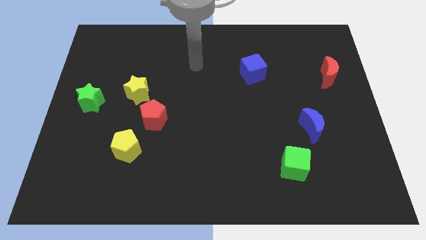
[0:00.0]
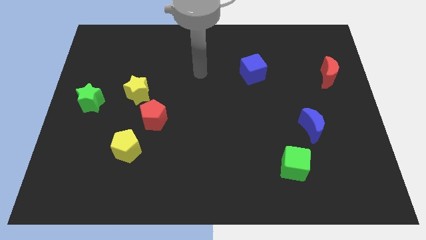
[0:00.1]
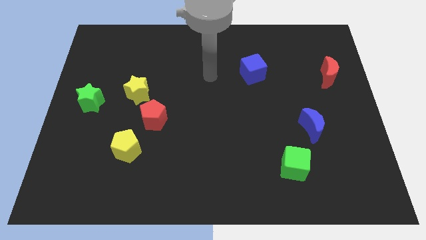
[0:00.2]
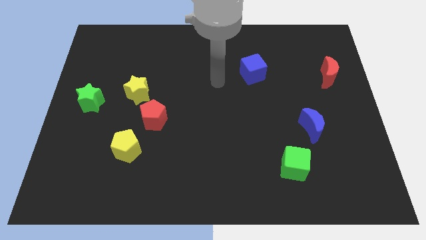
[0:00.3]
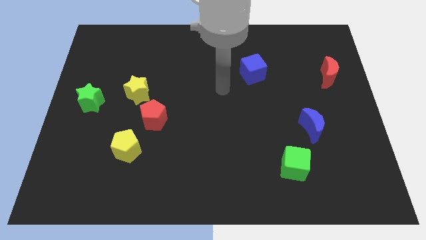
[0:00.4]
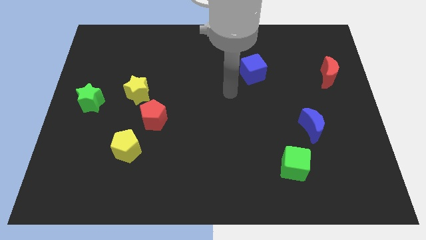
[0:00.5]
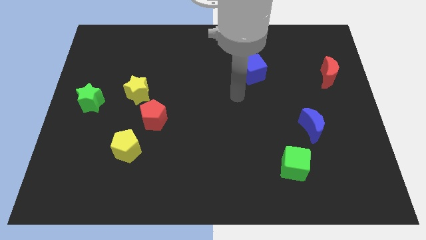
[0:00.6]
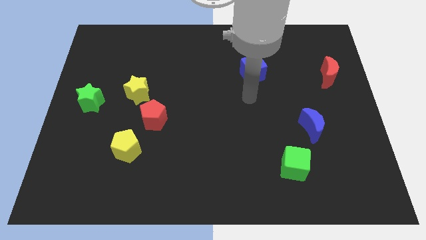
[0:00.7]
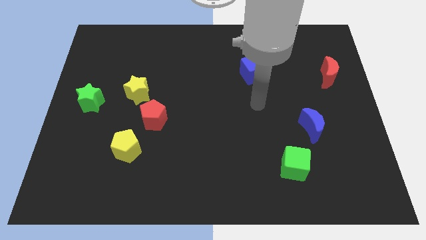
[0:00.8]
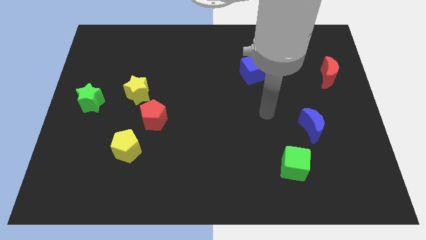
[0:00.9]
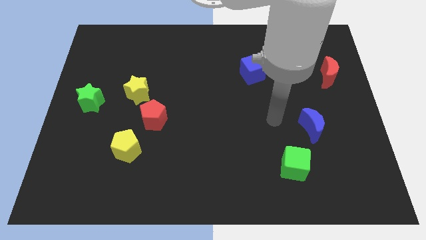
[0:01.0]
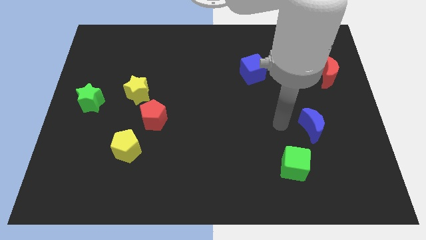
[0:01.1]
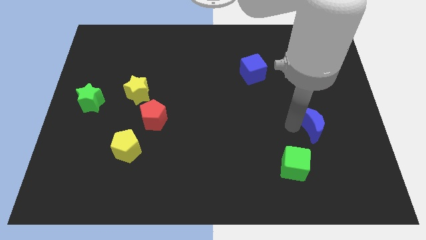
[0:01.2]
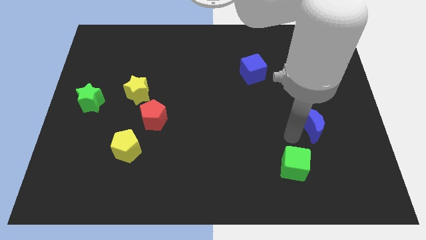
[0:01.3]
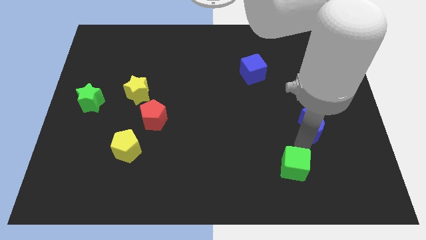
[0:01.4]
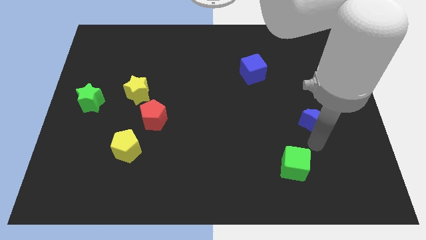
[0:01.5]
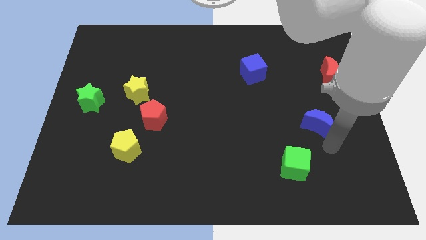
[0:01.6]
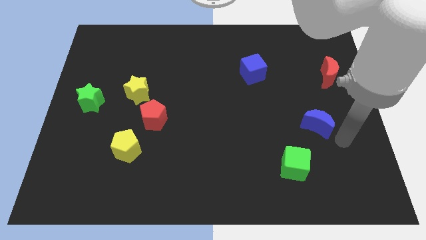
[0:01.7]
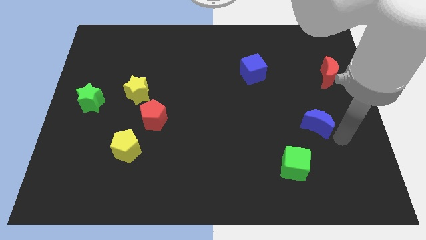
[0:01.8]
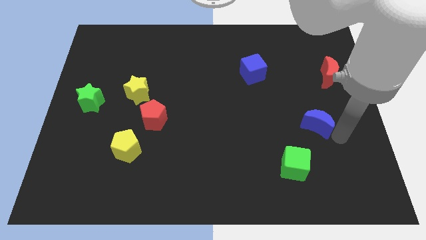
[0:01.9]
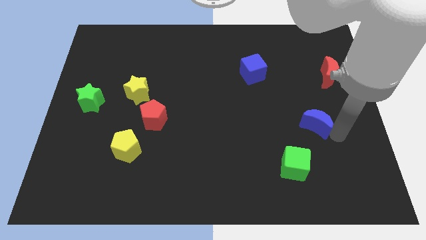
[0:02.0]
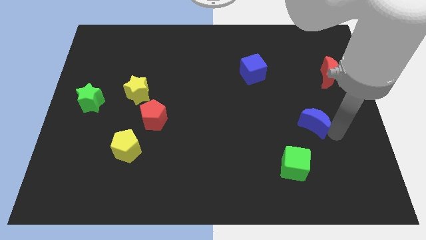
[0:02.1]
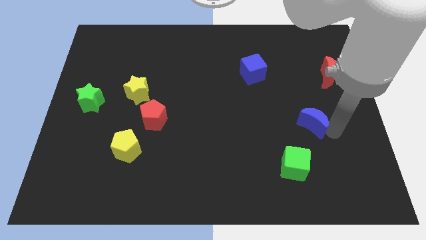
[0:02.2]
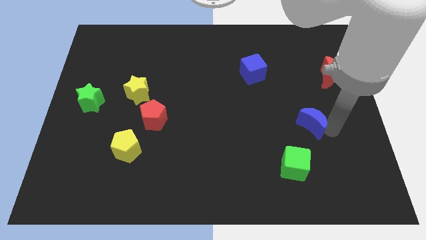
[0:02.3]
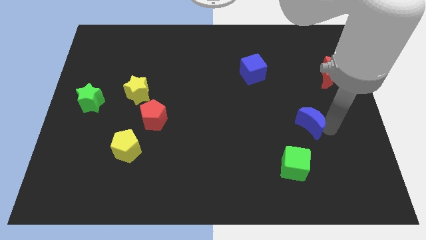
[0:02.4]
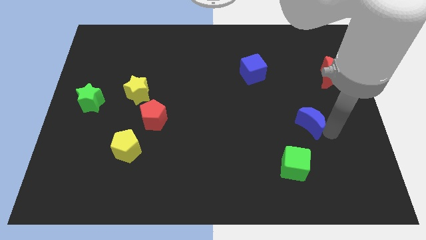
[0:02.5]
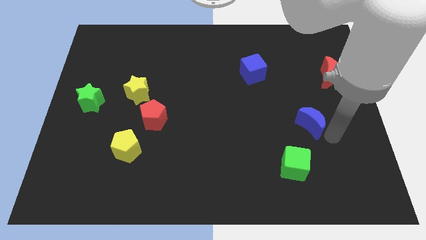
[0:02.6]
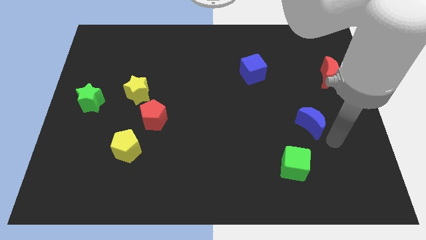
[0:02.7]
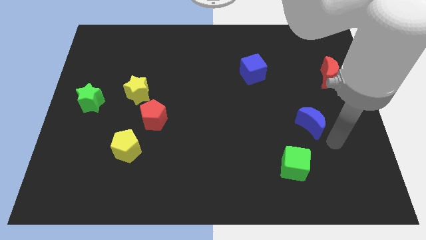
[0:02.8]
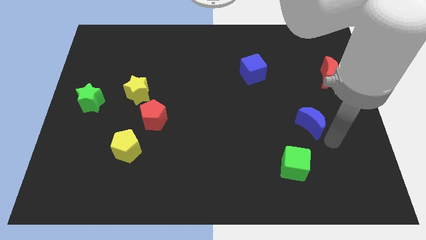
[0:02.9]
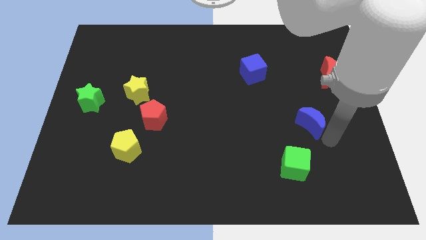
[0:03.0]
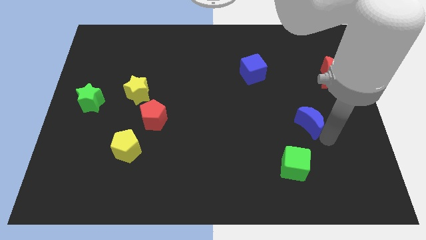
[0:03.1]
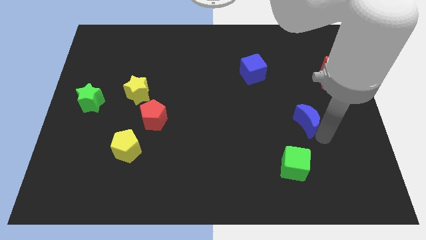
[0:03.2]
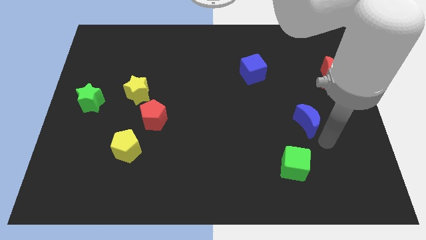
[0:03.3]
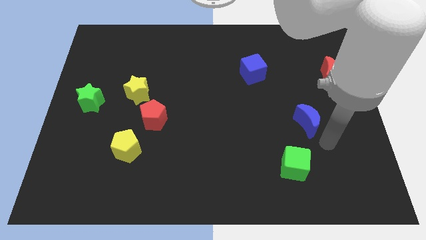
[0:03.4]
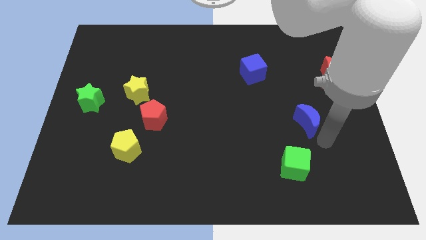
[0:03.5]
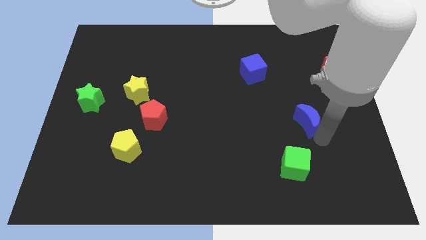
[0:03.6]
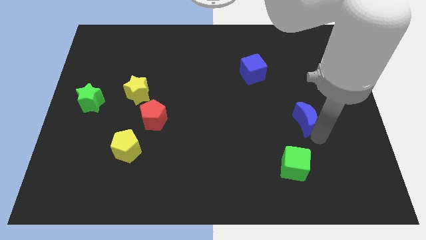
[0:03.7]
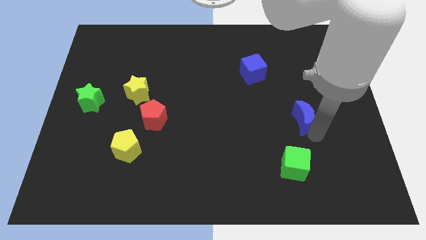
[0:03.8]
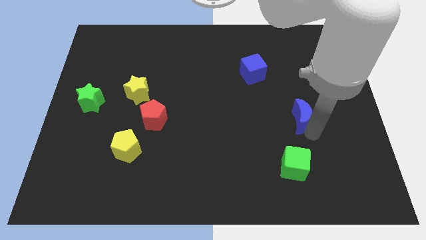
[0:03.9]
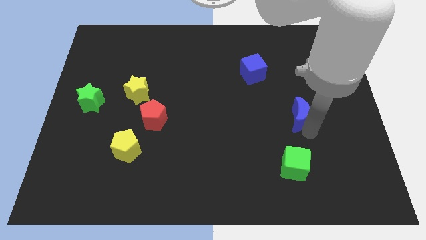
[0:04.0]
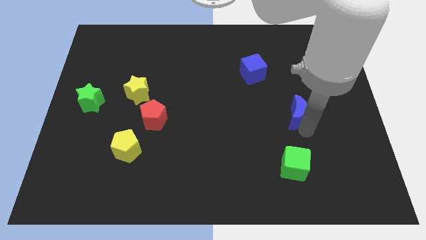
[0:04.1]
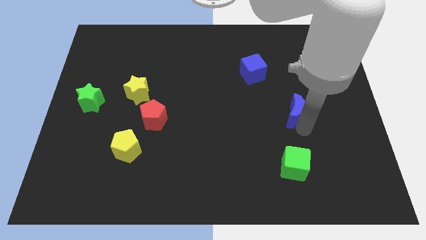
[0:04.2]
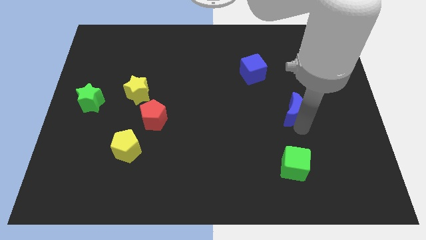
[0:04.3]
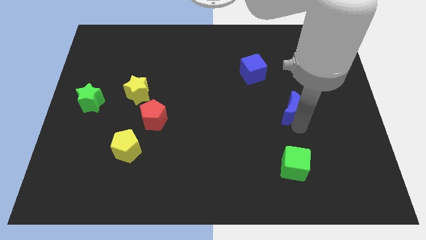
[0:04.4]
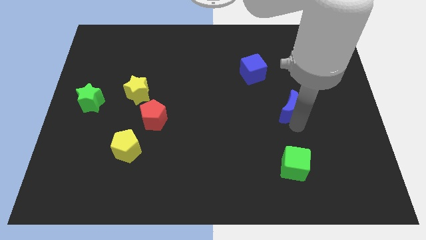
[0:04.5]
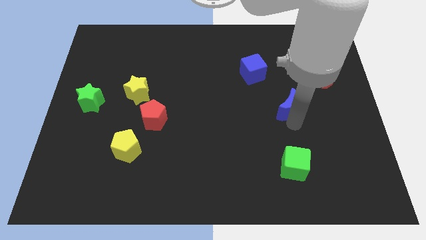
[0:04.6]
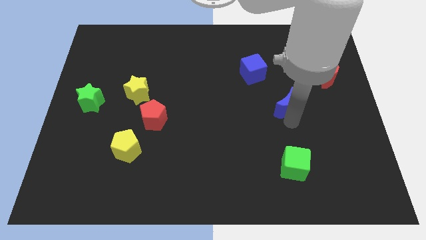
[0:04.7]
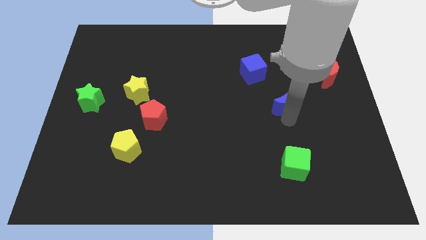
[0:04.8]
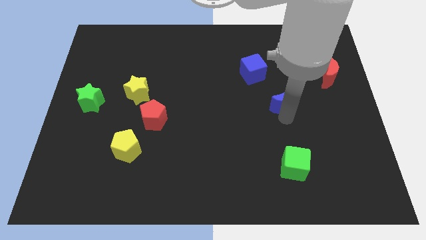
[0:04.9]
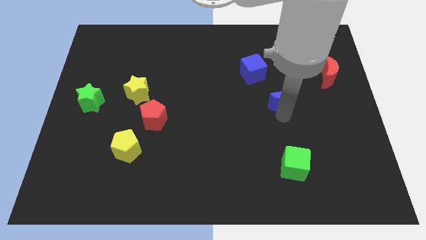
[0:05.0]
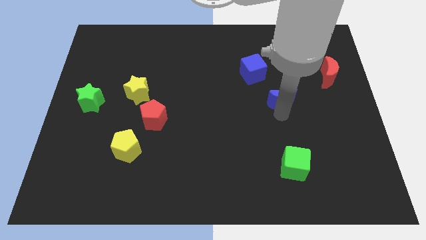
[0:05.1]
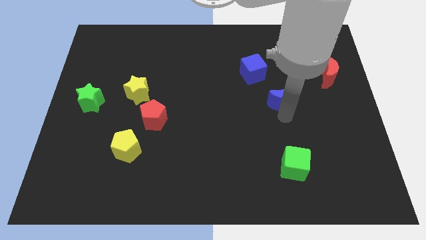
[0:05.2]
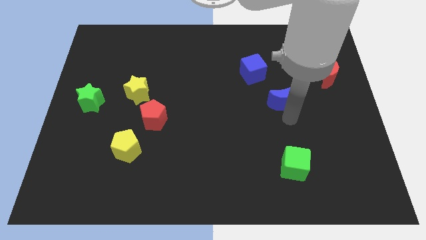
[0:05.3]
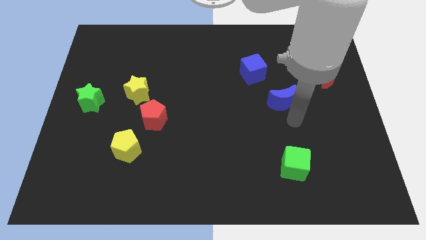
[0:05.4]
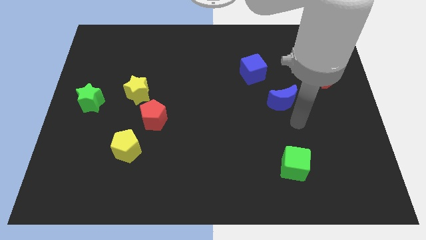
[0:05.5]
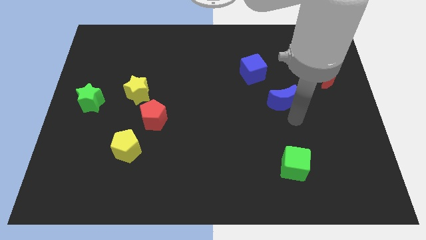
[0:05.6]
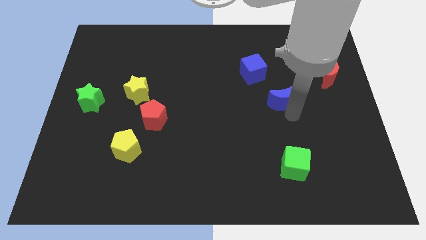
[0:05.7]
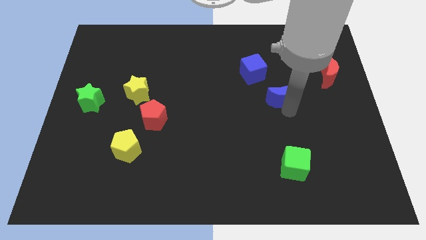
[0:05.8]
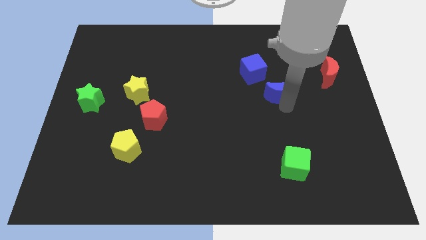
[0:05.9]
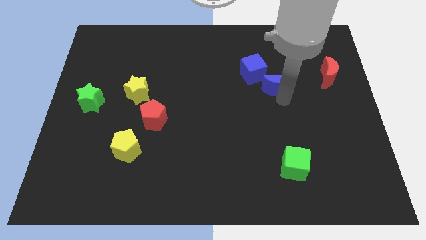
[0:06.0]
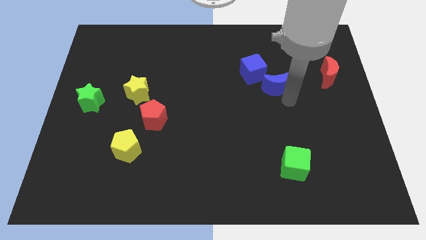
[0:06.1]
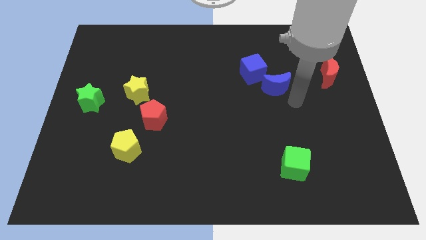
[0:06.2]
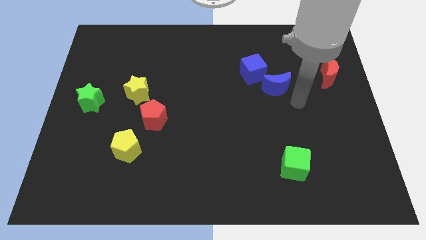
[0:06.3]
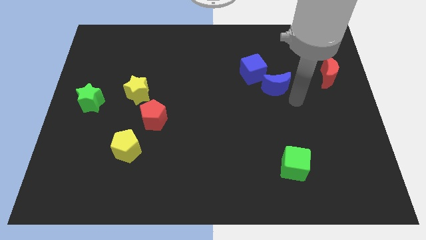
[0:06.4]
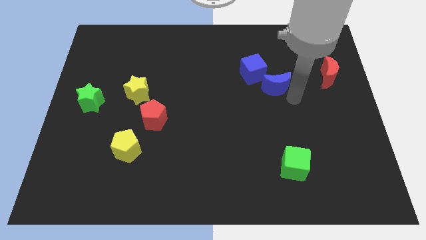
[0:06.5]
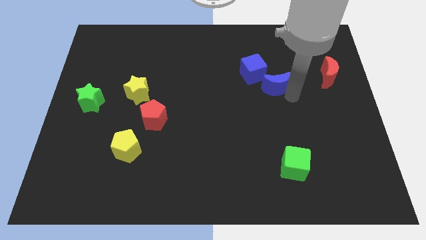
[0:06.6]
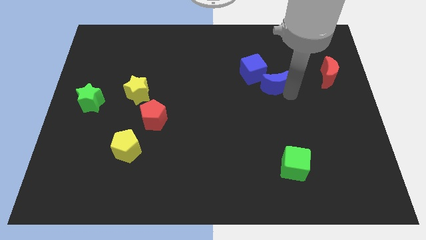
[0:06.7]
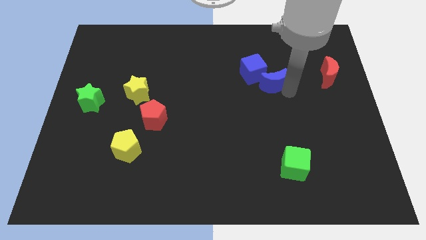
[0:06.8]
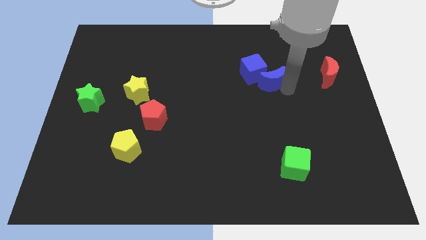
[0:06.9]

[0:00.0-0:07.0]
move the blue moon to the blue cube
